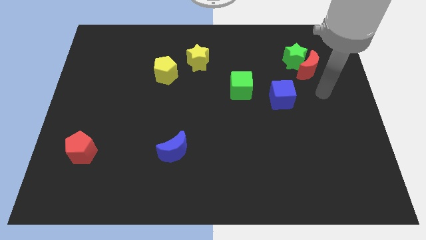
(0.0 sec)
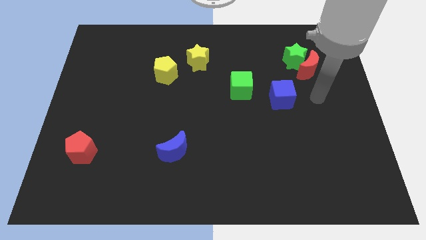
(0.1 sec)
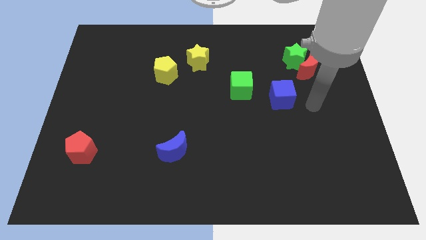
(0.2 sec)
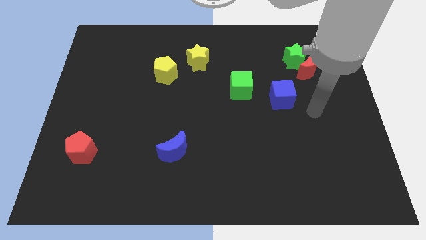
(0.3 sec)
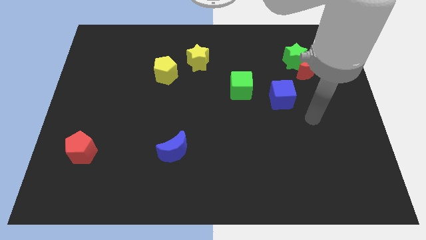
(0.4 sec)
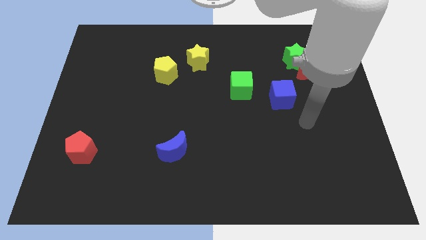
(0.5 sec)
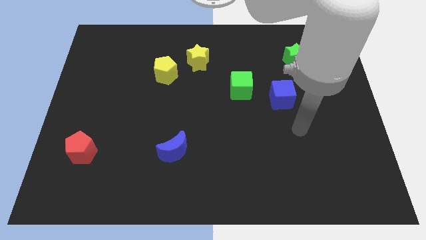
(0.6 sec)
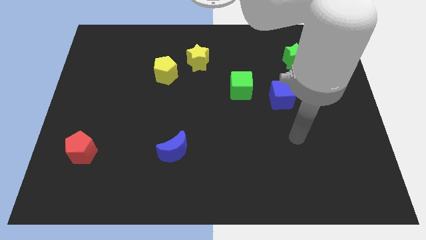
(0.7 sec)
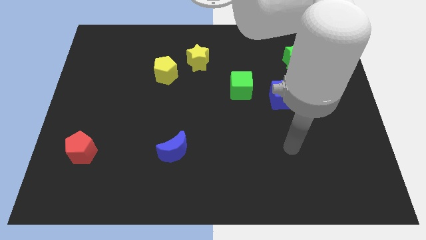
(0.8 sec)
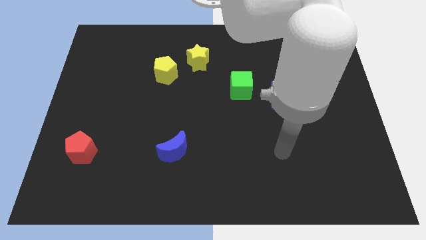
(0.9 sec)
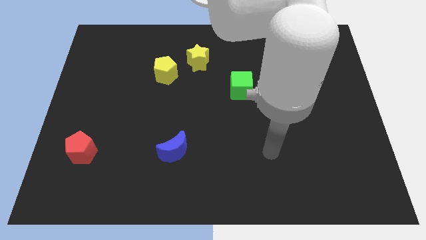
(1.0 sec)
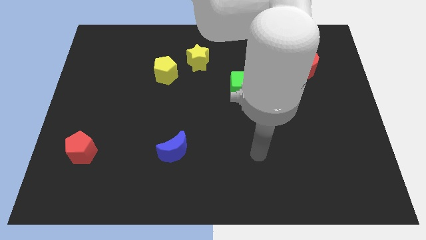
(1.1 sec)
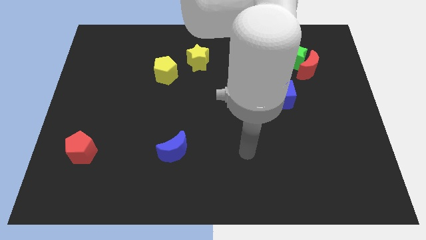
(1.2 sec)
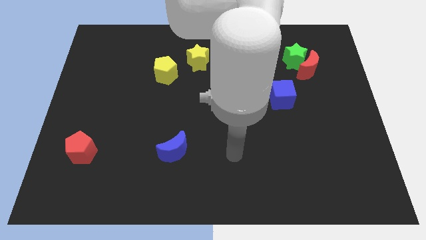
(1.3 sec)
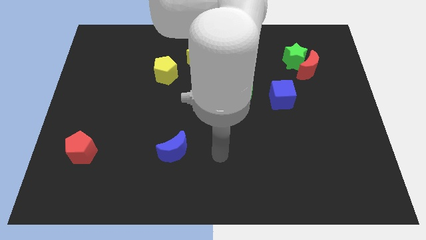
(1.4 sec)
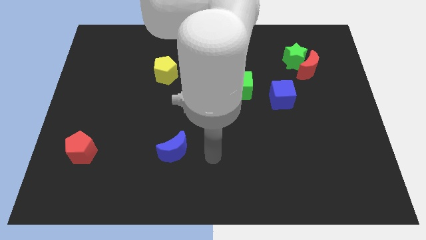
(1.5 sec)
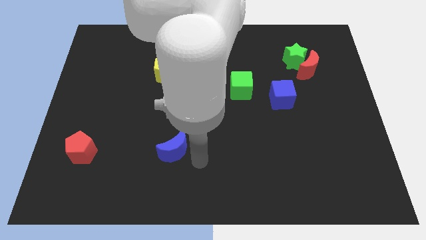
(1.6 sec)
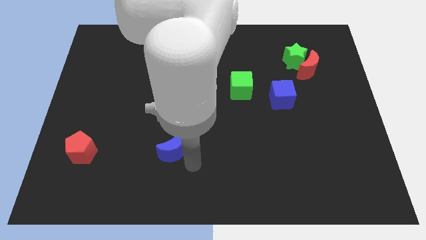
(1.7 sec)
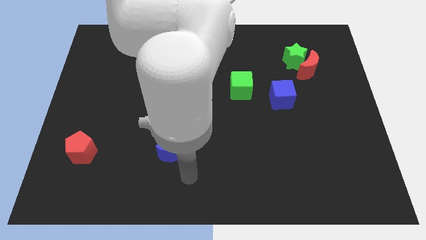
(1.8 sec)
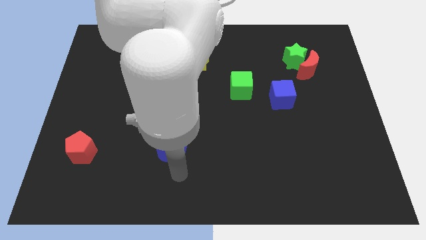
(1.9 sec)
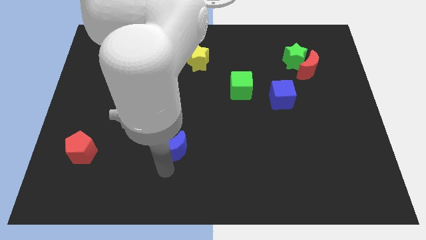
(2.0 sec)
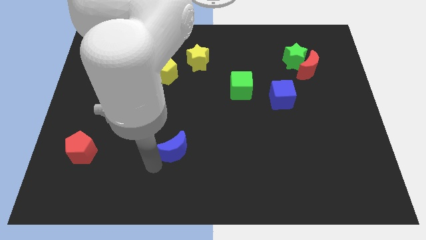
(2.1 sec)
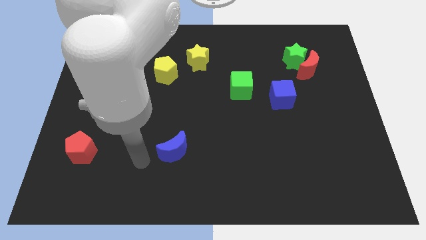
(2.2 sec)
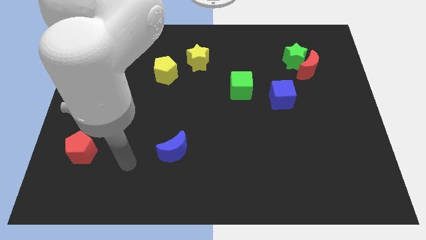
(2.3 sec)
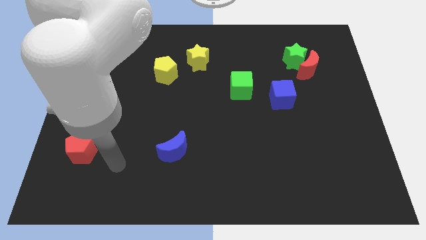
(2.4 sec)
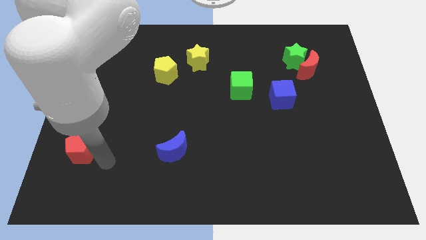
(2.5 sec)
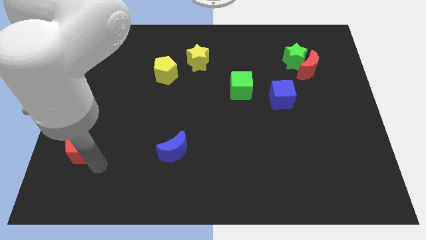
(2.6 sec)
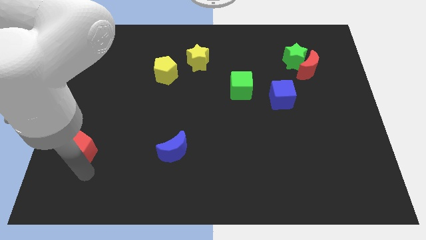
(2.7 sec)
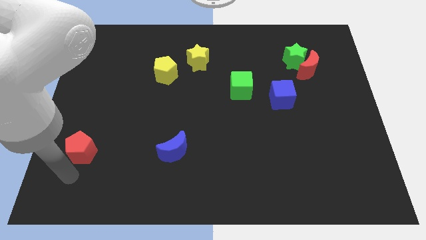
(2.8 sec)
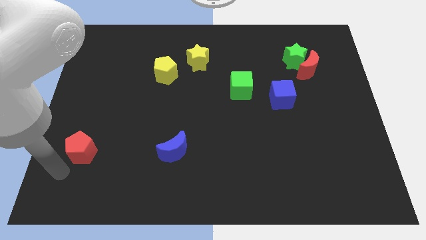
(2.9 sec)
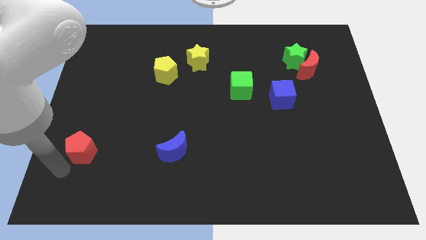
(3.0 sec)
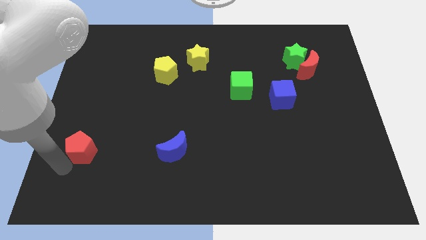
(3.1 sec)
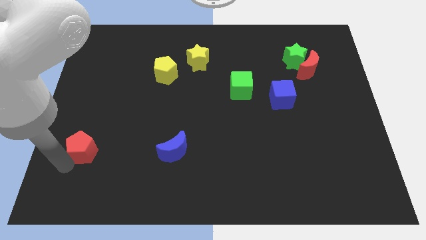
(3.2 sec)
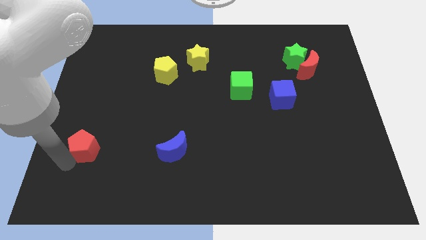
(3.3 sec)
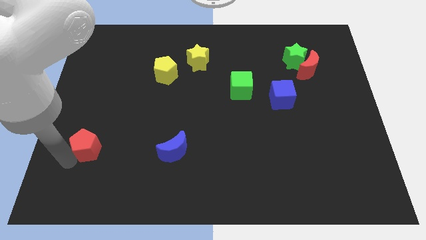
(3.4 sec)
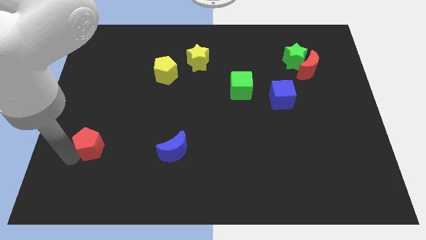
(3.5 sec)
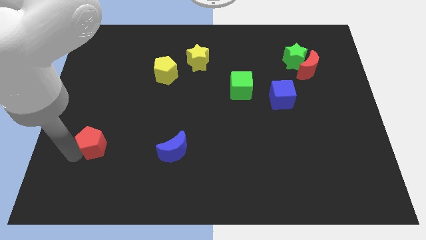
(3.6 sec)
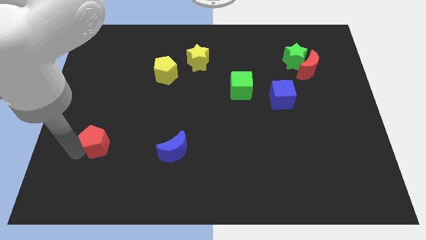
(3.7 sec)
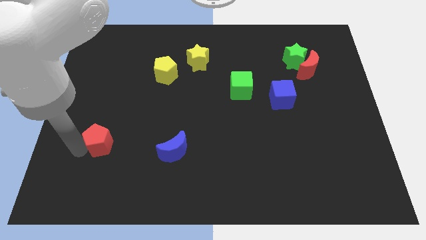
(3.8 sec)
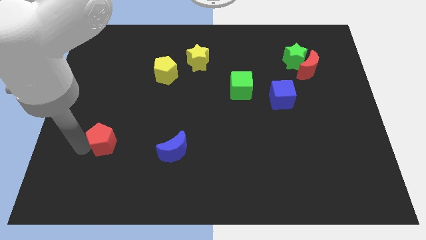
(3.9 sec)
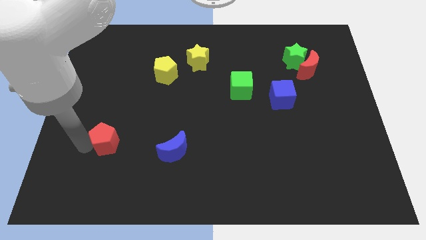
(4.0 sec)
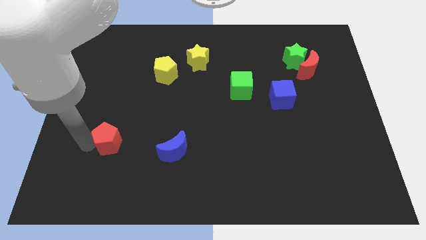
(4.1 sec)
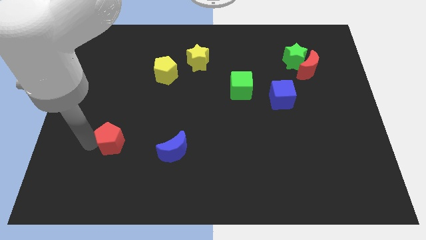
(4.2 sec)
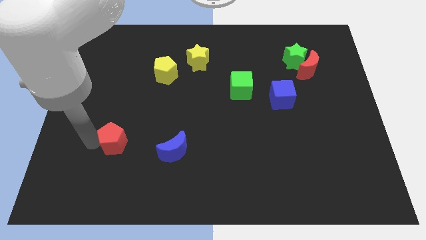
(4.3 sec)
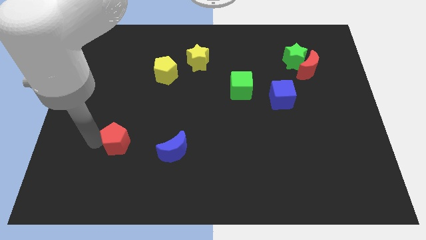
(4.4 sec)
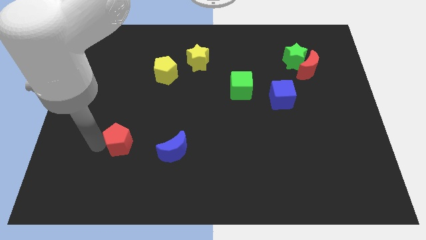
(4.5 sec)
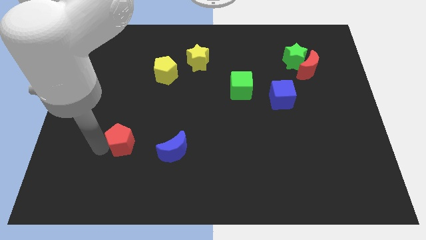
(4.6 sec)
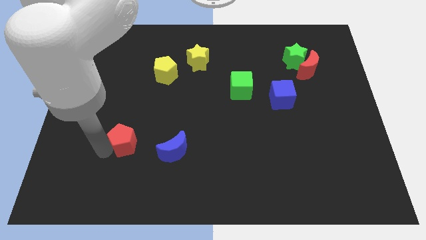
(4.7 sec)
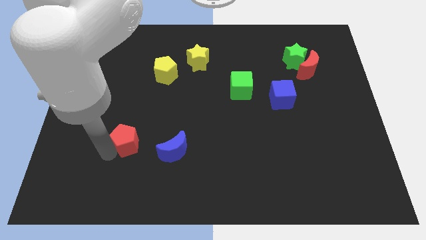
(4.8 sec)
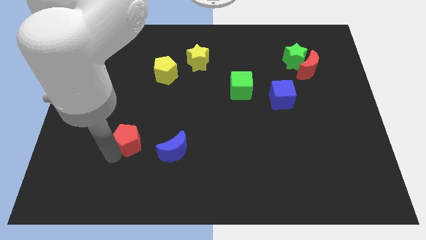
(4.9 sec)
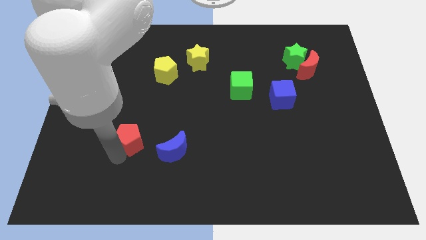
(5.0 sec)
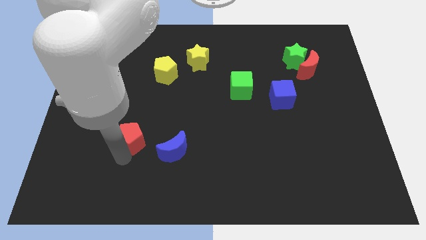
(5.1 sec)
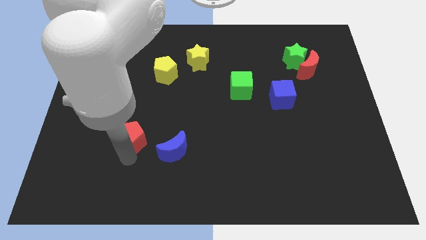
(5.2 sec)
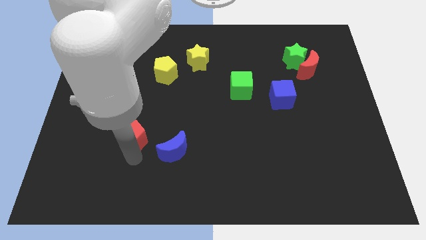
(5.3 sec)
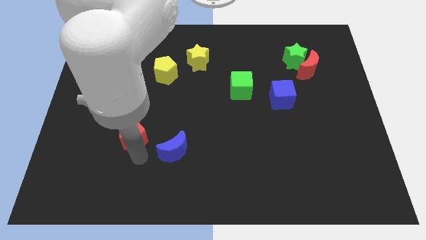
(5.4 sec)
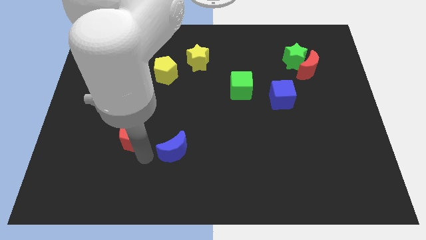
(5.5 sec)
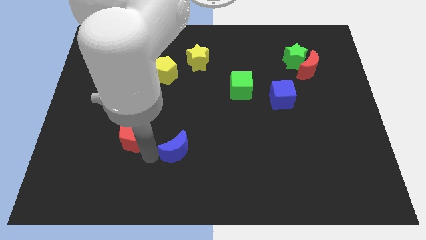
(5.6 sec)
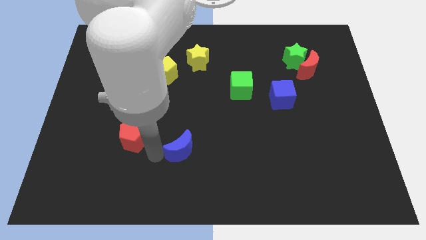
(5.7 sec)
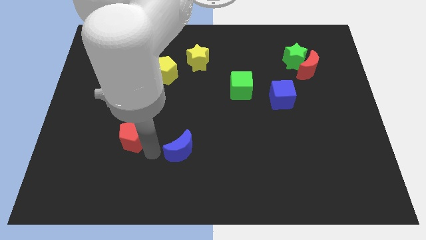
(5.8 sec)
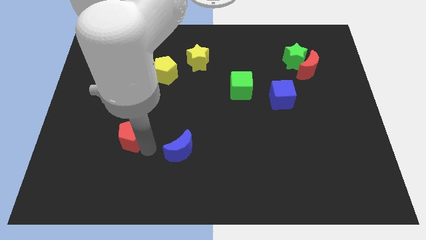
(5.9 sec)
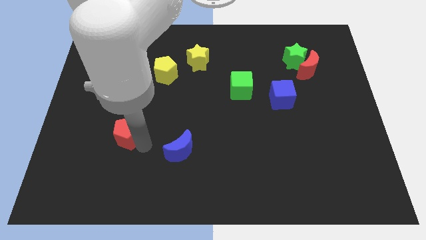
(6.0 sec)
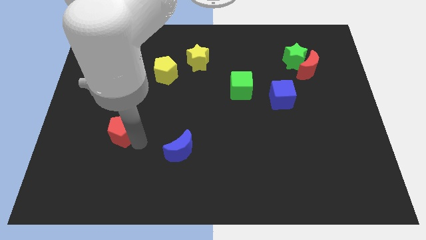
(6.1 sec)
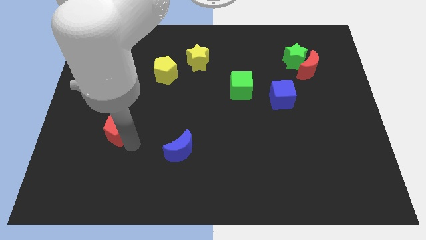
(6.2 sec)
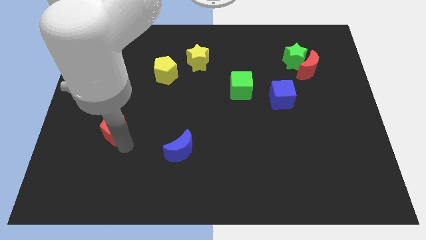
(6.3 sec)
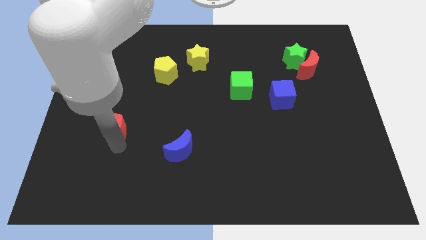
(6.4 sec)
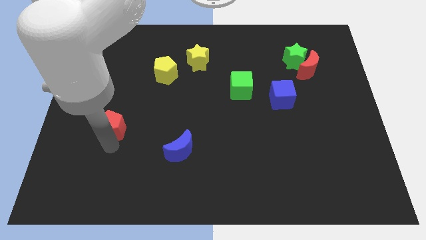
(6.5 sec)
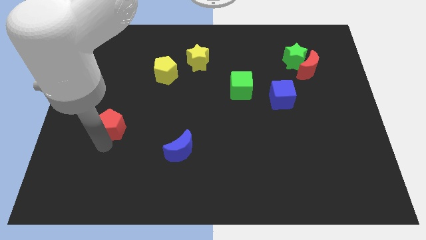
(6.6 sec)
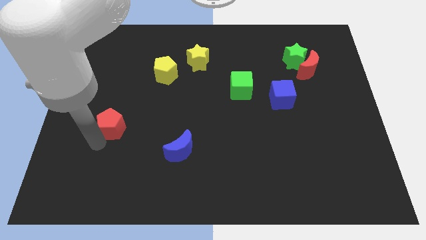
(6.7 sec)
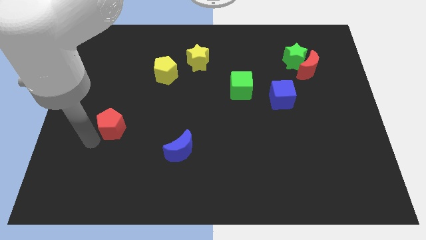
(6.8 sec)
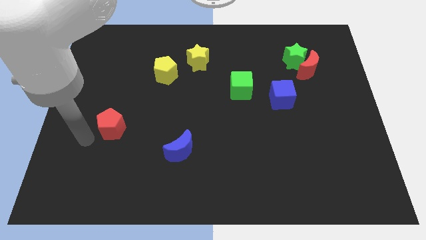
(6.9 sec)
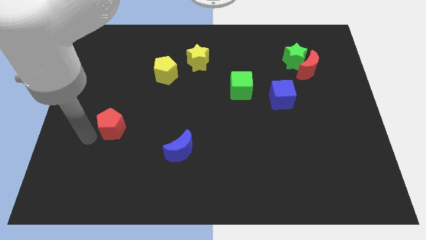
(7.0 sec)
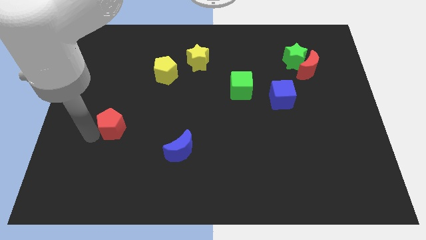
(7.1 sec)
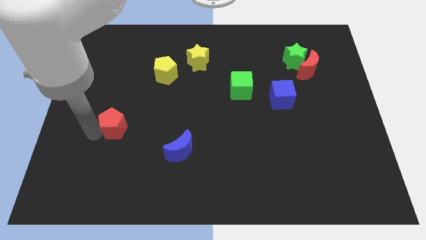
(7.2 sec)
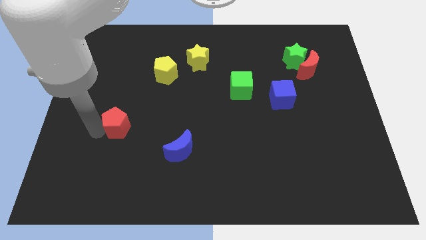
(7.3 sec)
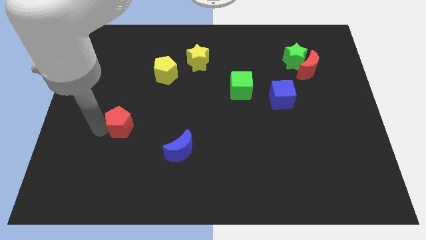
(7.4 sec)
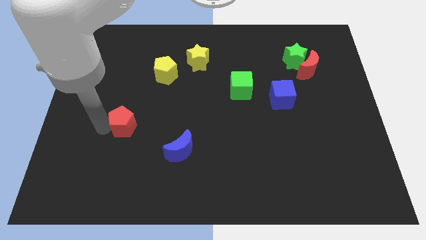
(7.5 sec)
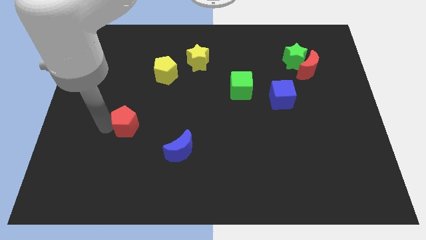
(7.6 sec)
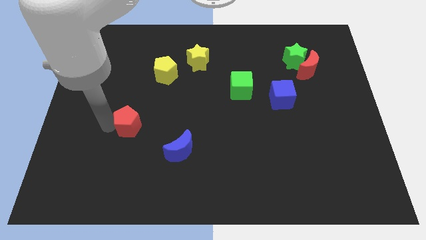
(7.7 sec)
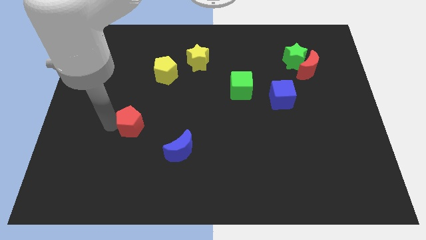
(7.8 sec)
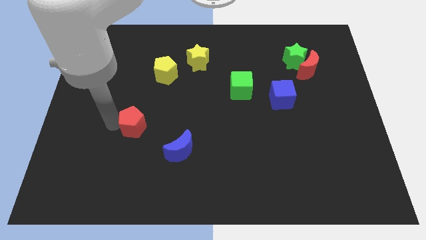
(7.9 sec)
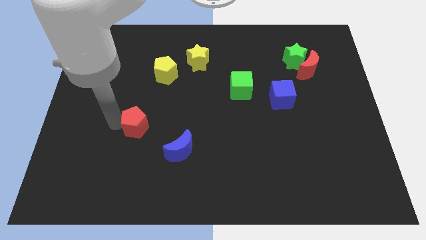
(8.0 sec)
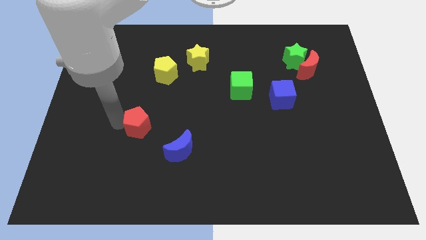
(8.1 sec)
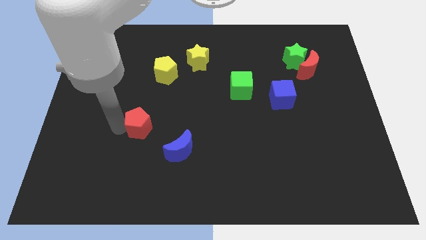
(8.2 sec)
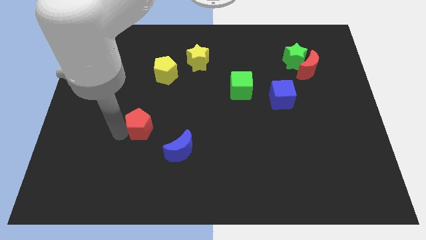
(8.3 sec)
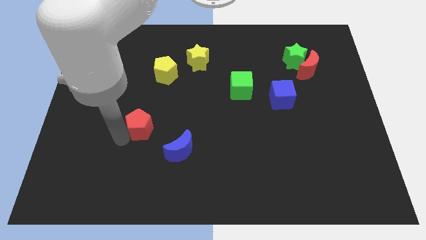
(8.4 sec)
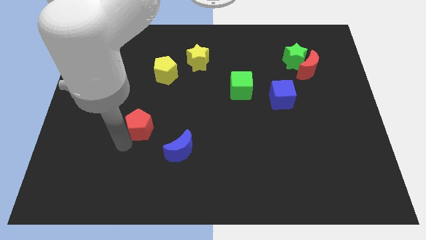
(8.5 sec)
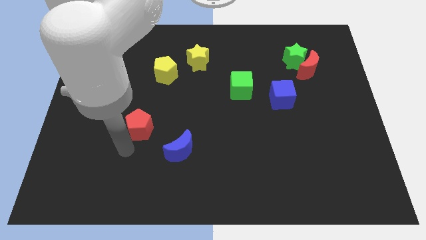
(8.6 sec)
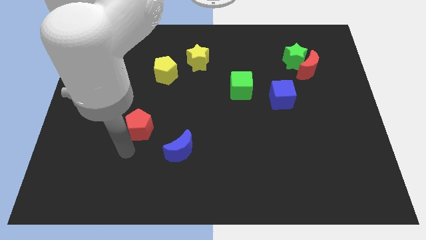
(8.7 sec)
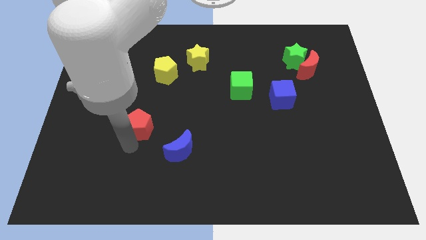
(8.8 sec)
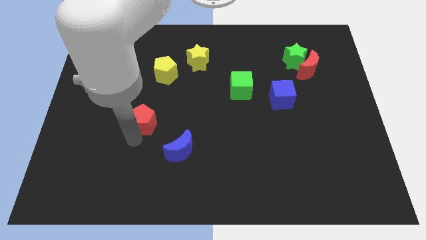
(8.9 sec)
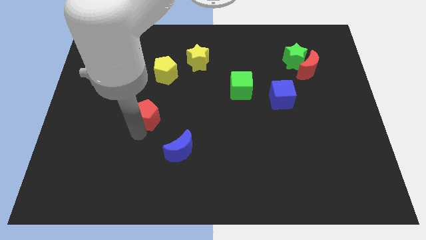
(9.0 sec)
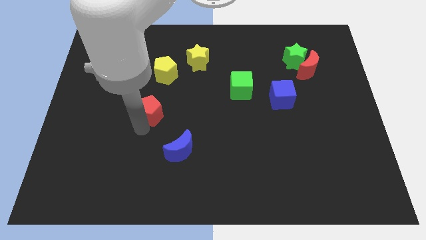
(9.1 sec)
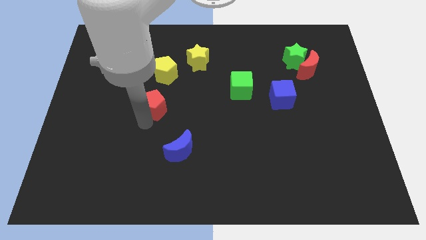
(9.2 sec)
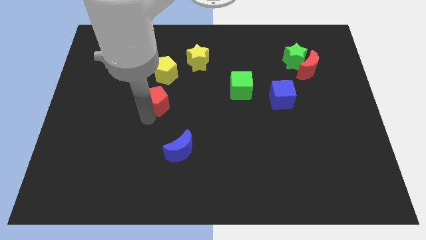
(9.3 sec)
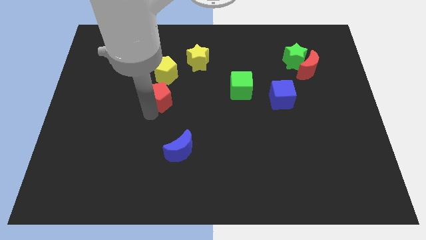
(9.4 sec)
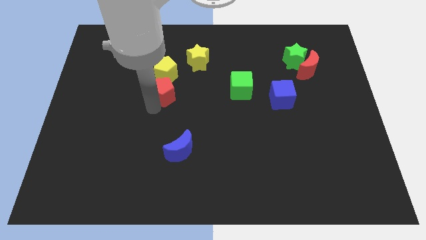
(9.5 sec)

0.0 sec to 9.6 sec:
push the red pentagon to the bottom right side of the yellow pentagon
